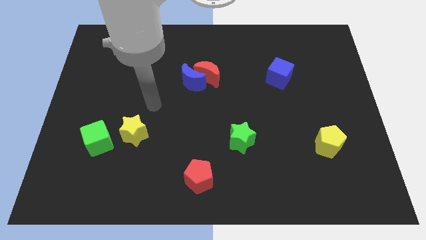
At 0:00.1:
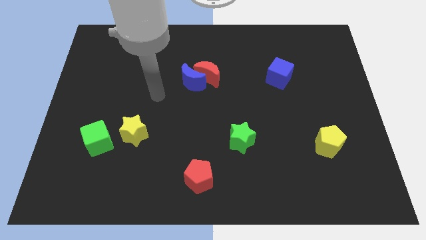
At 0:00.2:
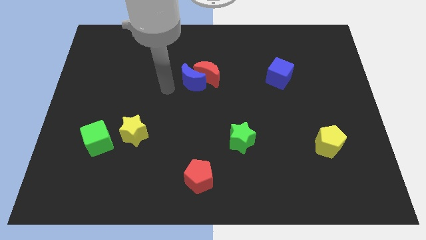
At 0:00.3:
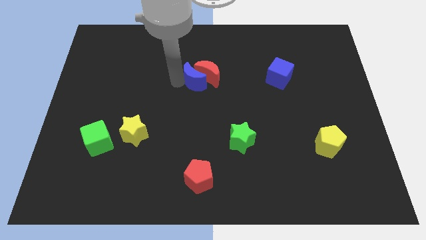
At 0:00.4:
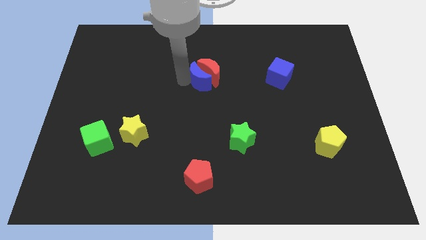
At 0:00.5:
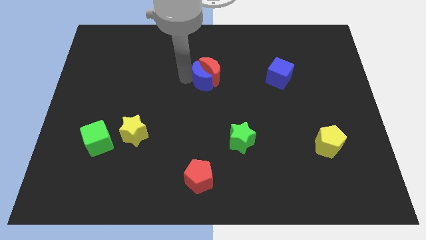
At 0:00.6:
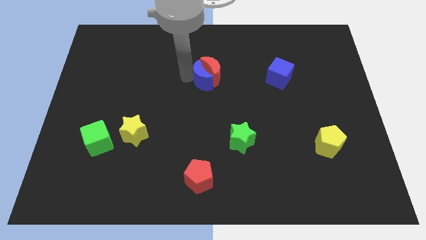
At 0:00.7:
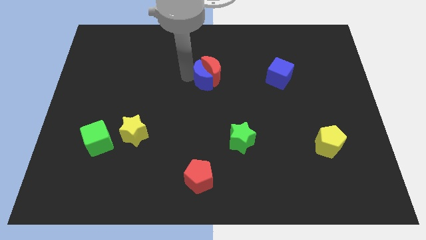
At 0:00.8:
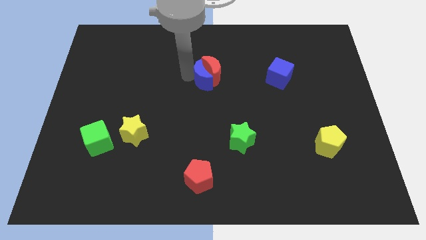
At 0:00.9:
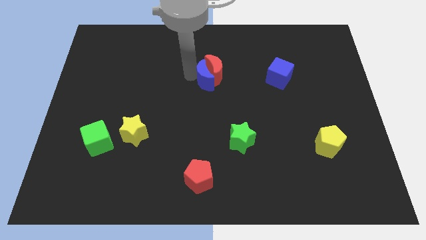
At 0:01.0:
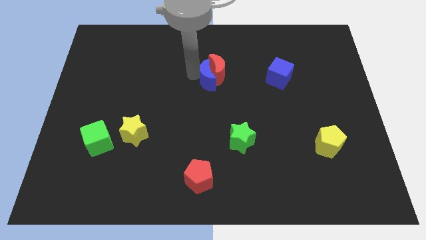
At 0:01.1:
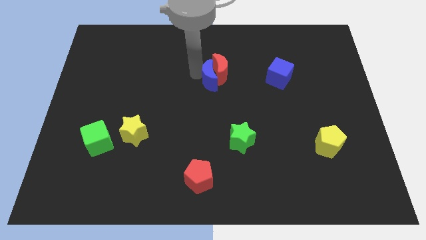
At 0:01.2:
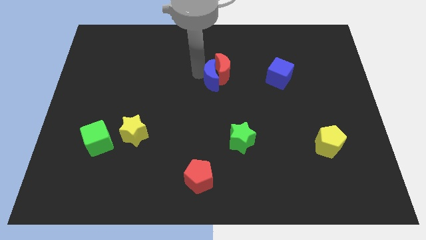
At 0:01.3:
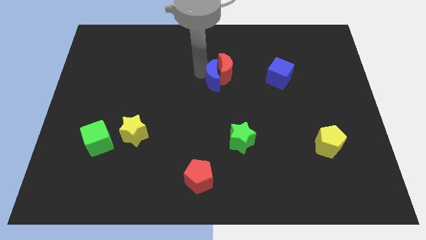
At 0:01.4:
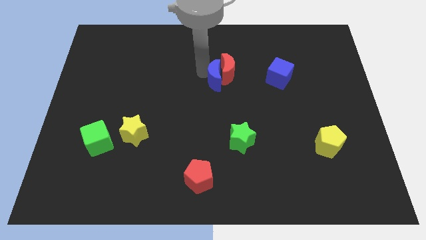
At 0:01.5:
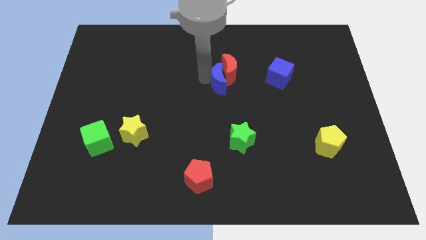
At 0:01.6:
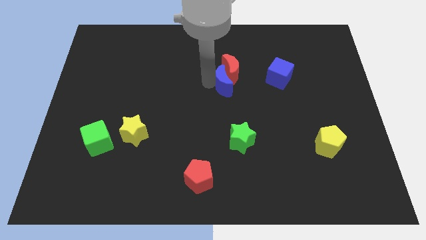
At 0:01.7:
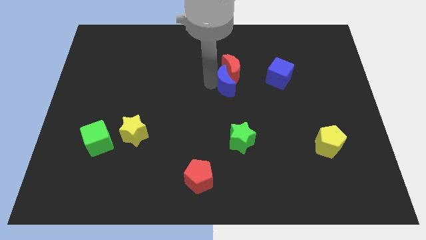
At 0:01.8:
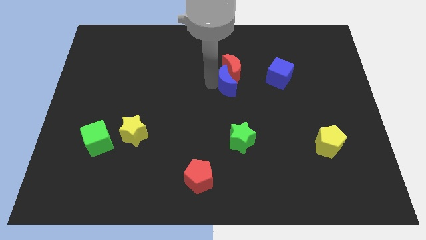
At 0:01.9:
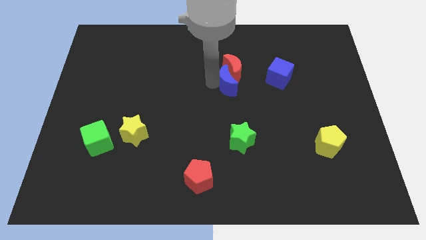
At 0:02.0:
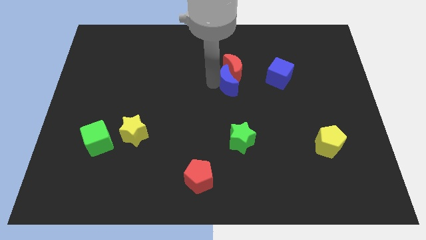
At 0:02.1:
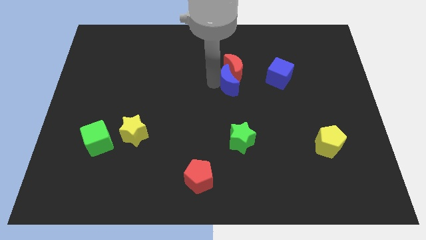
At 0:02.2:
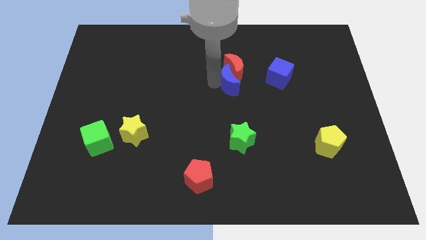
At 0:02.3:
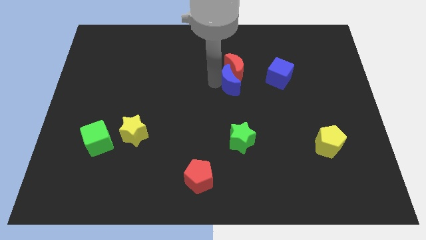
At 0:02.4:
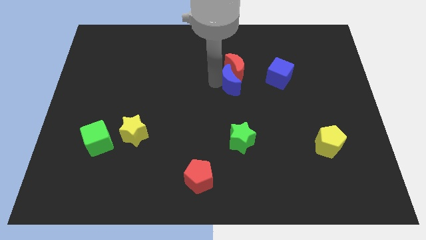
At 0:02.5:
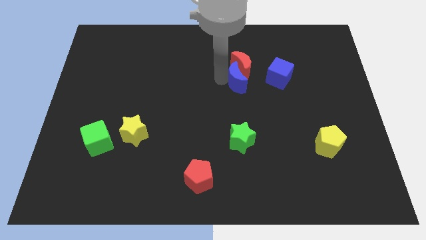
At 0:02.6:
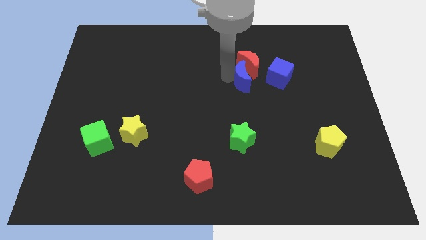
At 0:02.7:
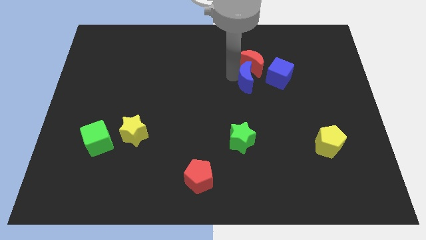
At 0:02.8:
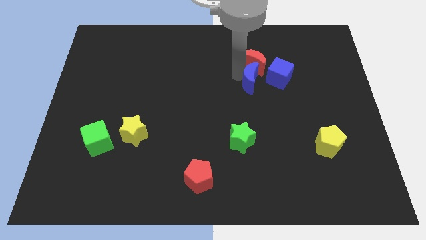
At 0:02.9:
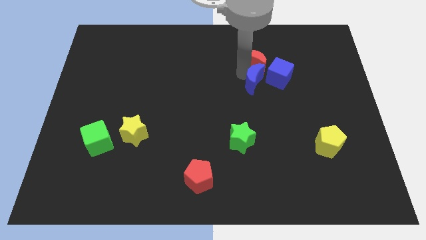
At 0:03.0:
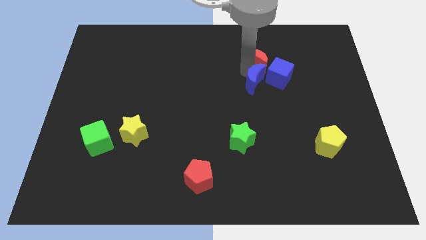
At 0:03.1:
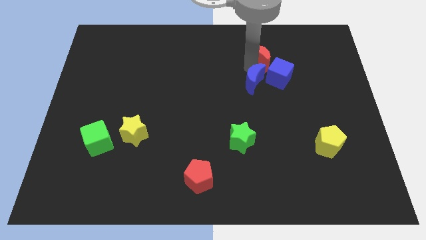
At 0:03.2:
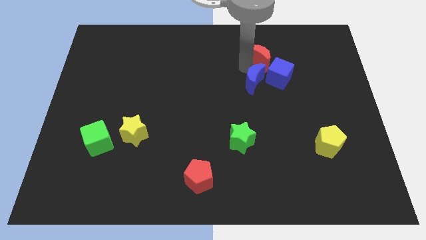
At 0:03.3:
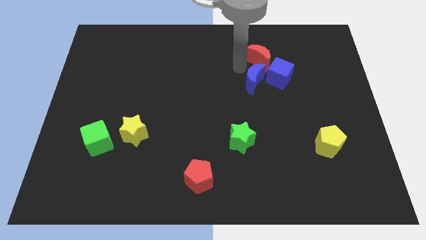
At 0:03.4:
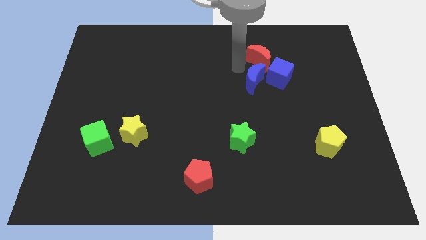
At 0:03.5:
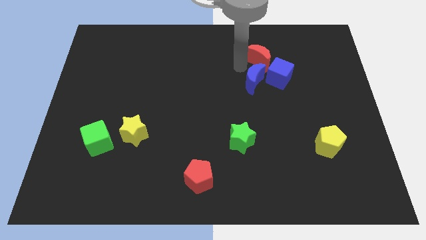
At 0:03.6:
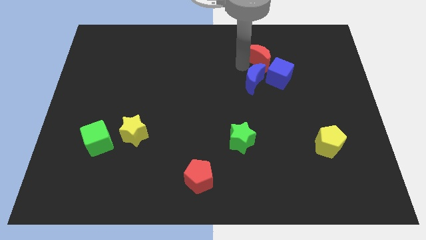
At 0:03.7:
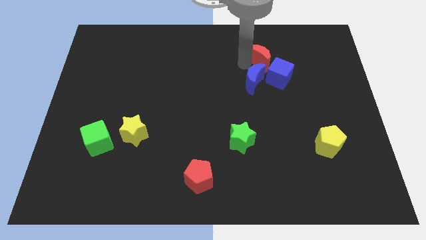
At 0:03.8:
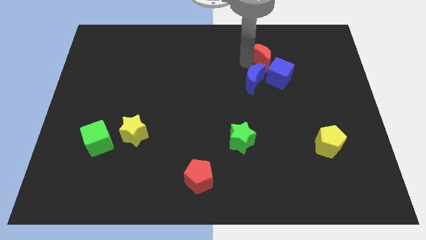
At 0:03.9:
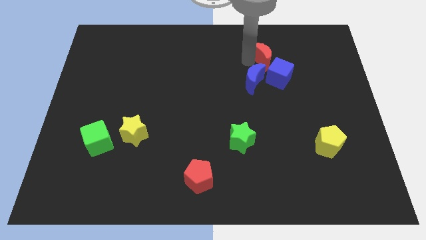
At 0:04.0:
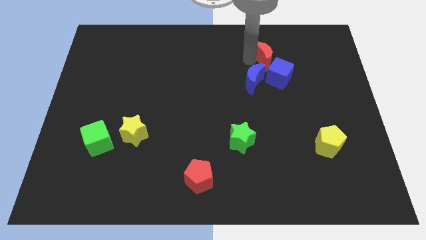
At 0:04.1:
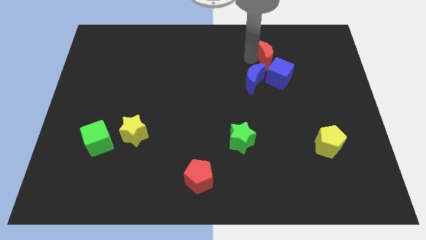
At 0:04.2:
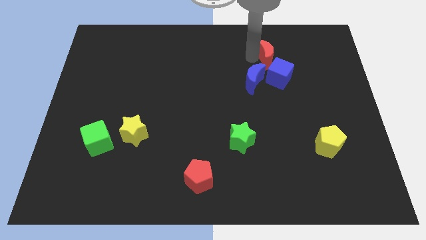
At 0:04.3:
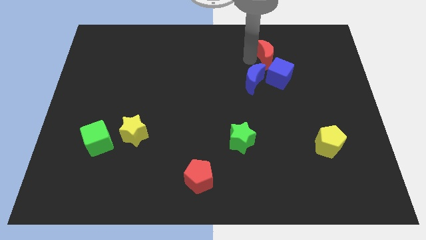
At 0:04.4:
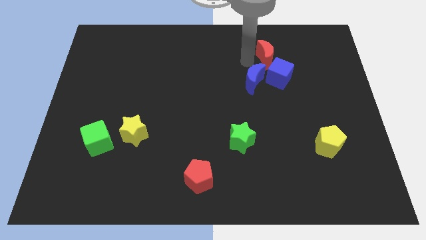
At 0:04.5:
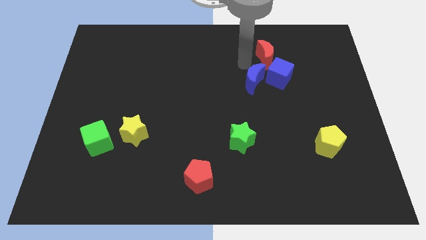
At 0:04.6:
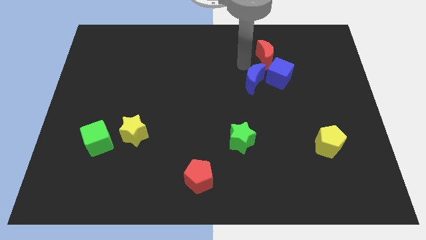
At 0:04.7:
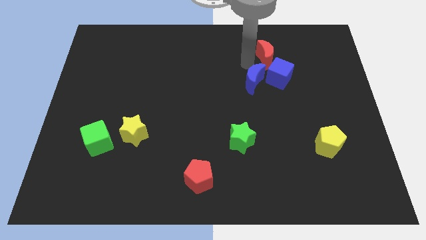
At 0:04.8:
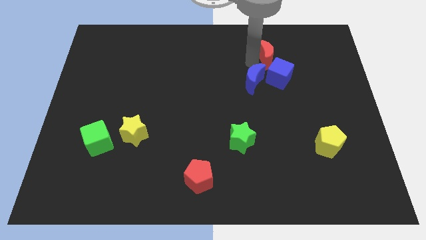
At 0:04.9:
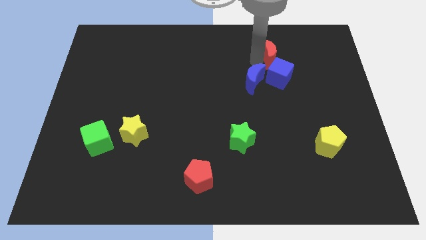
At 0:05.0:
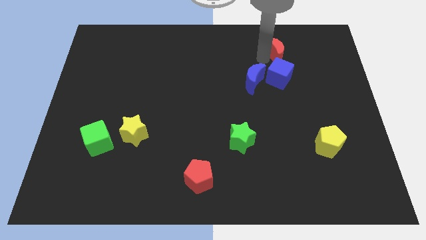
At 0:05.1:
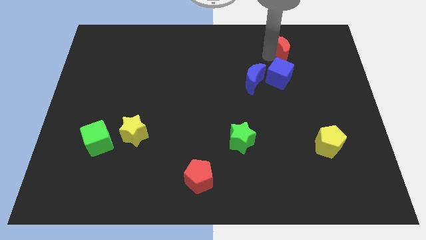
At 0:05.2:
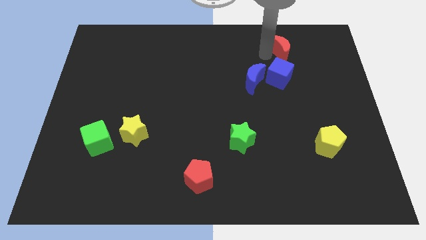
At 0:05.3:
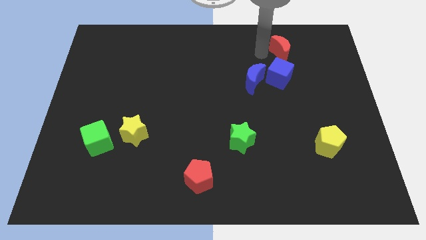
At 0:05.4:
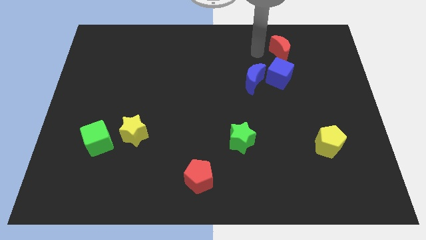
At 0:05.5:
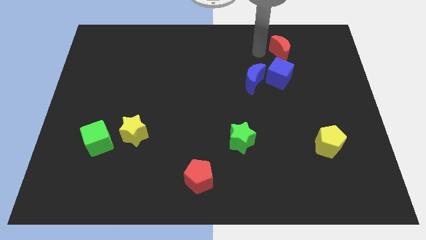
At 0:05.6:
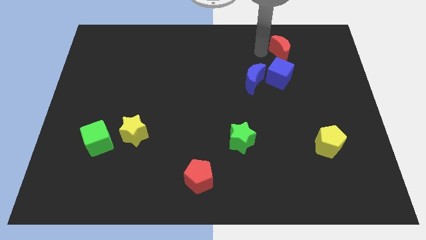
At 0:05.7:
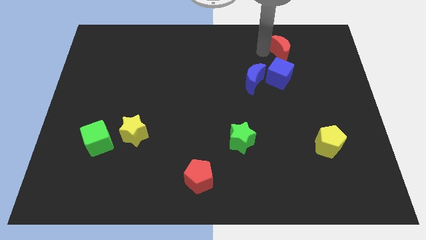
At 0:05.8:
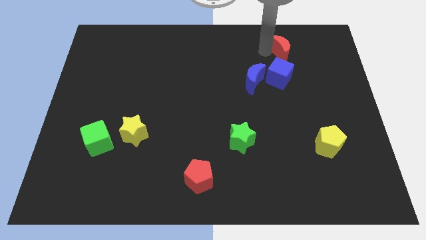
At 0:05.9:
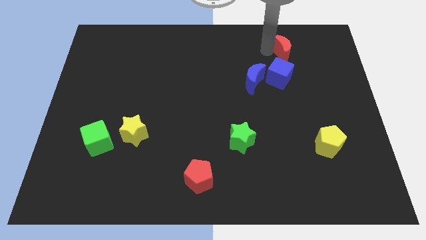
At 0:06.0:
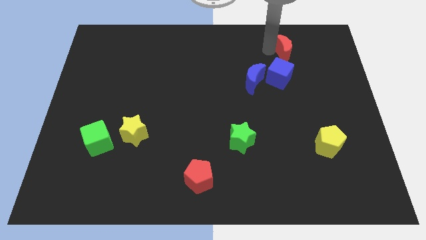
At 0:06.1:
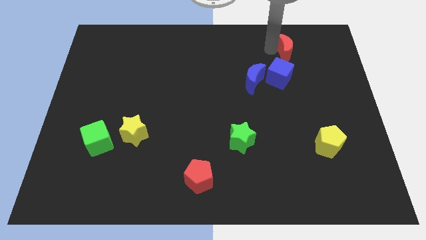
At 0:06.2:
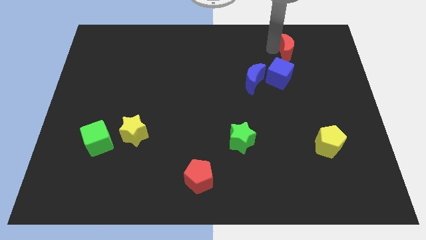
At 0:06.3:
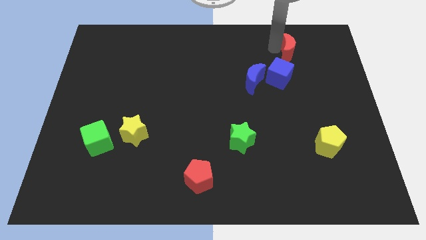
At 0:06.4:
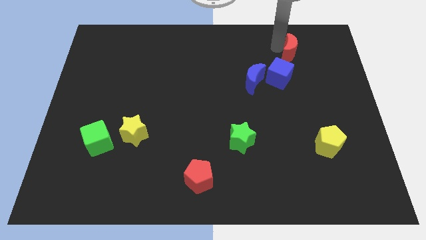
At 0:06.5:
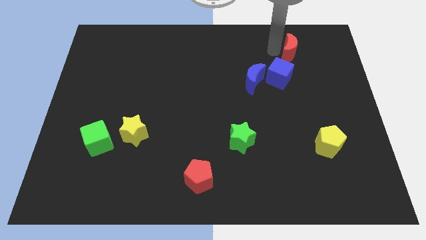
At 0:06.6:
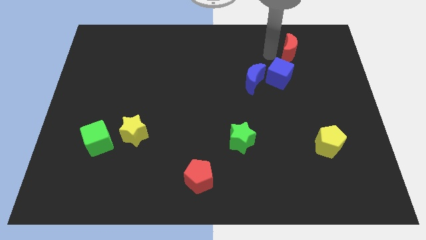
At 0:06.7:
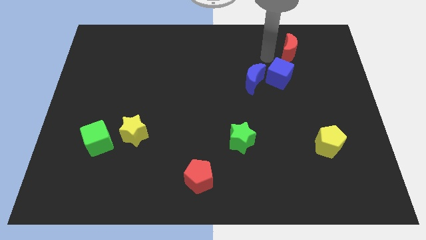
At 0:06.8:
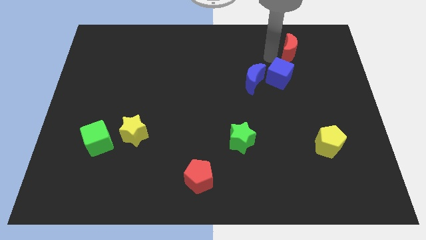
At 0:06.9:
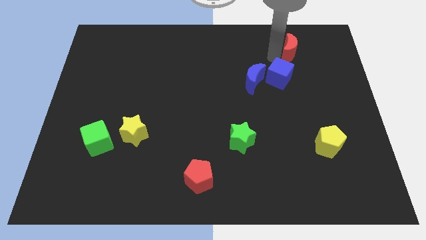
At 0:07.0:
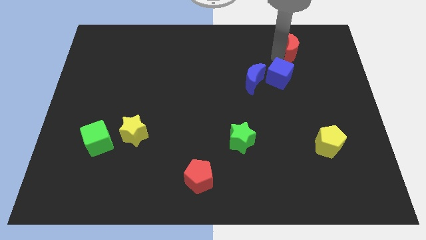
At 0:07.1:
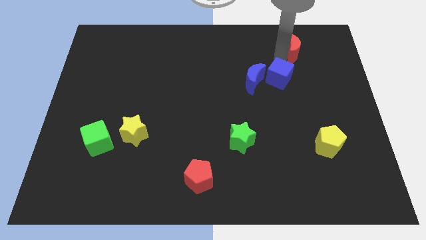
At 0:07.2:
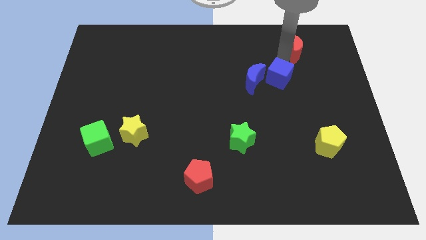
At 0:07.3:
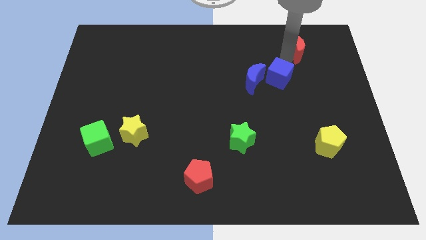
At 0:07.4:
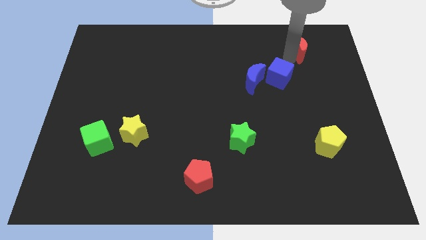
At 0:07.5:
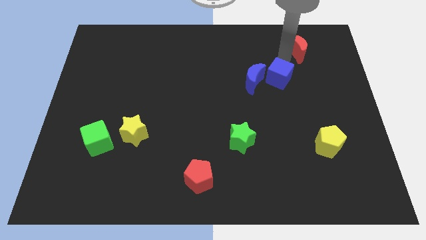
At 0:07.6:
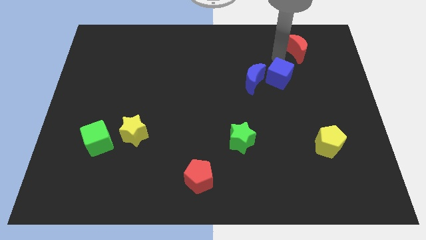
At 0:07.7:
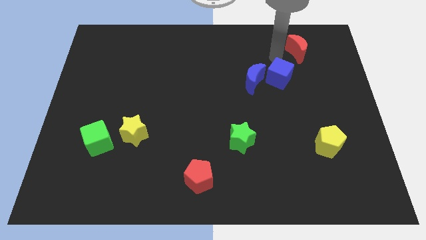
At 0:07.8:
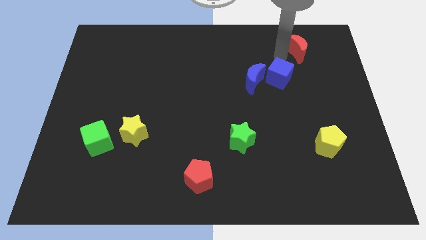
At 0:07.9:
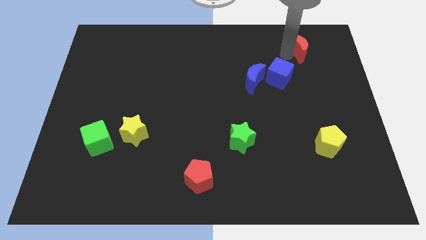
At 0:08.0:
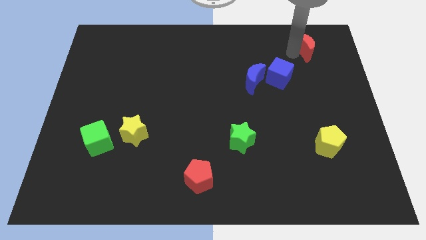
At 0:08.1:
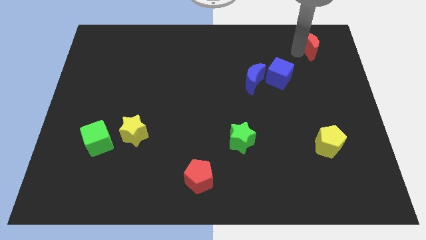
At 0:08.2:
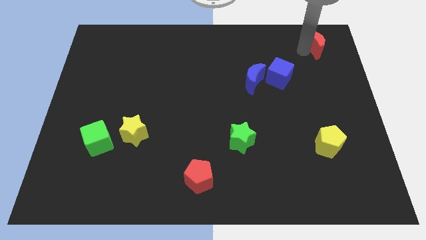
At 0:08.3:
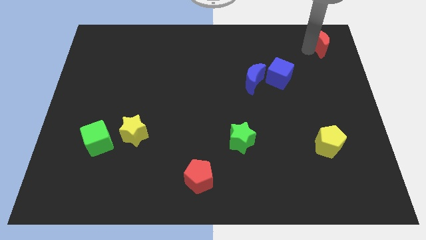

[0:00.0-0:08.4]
slide the red moon to the top right corner
